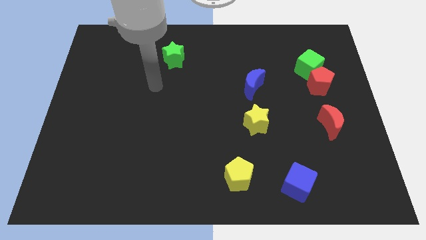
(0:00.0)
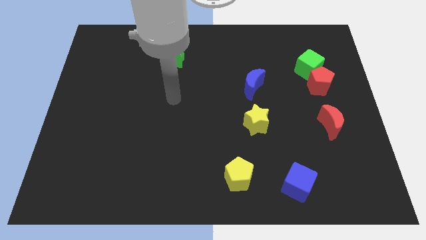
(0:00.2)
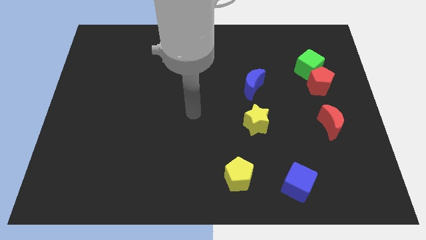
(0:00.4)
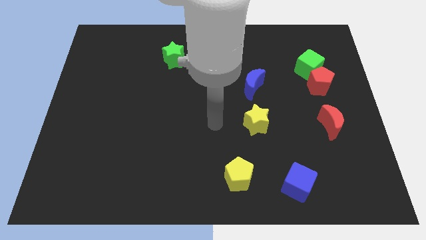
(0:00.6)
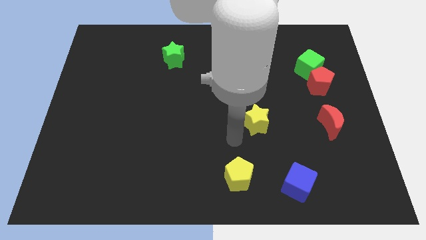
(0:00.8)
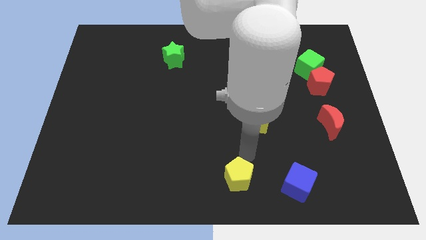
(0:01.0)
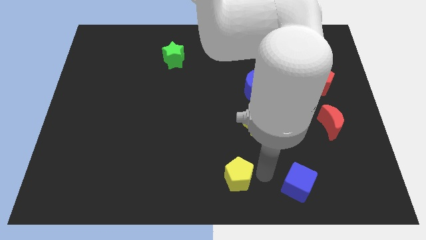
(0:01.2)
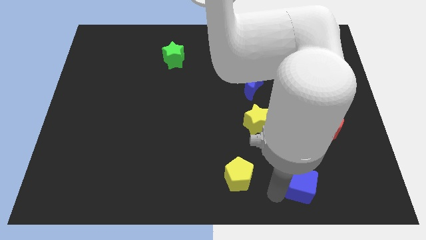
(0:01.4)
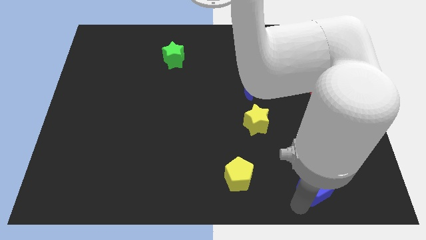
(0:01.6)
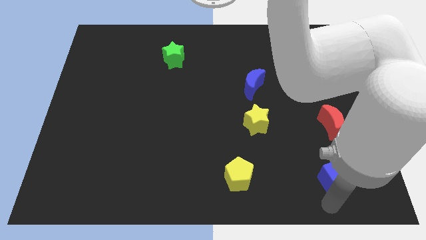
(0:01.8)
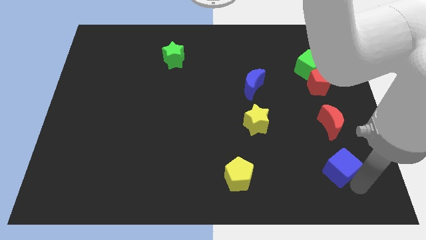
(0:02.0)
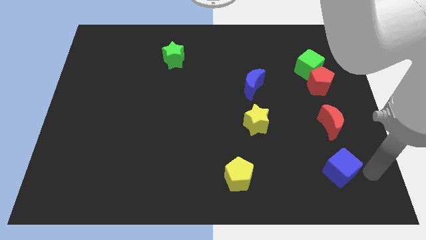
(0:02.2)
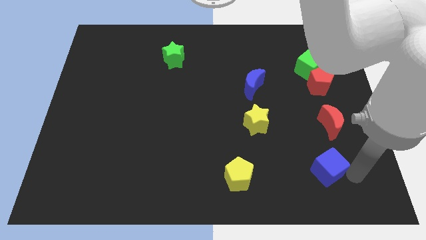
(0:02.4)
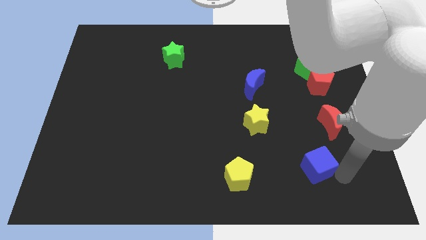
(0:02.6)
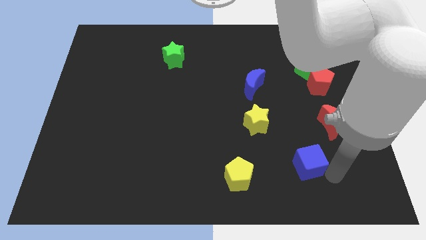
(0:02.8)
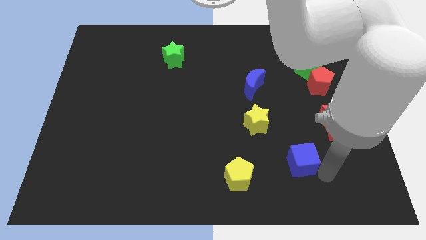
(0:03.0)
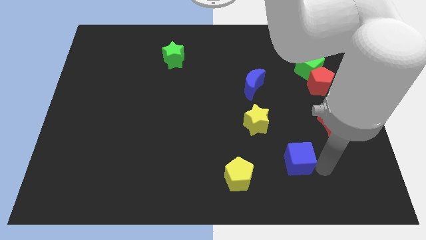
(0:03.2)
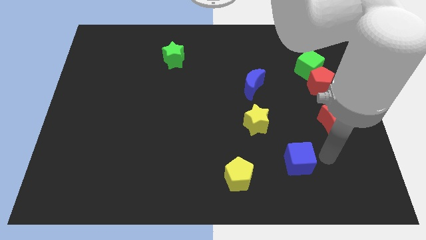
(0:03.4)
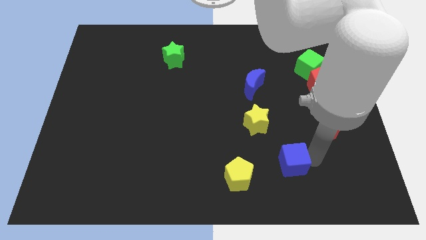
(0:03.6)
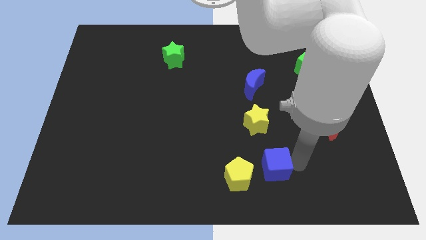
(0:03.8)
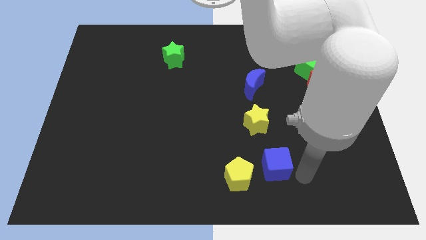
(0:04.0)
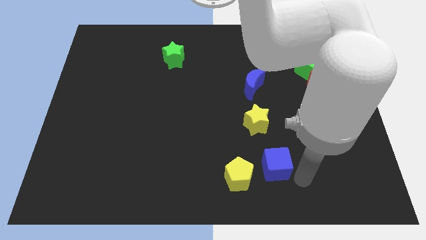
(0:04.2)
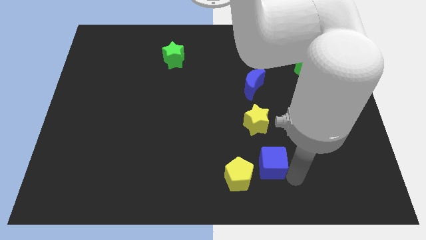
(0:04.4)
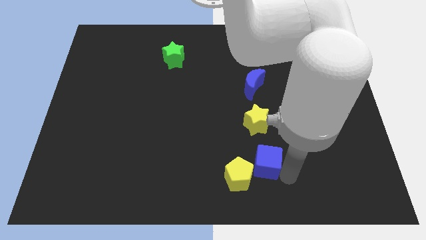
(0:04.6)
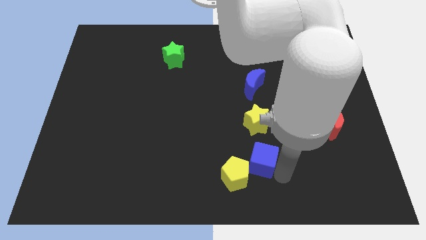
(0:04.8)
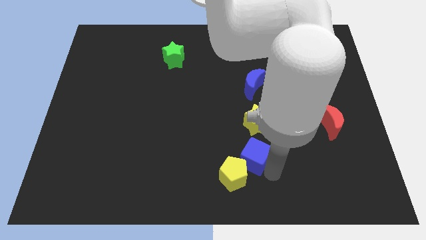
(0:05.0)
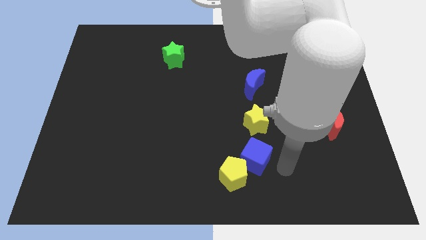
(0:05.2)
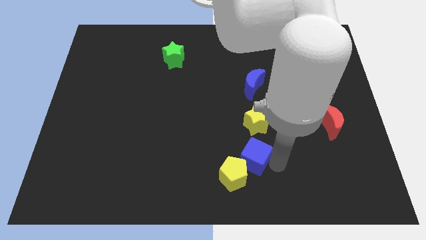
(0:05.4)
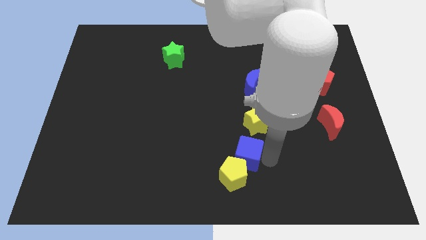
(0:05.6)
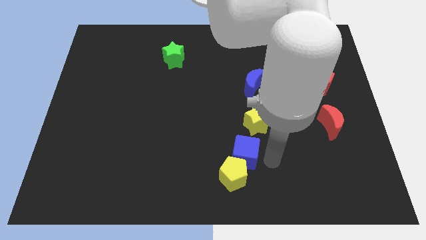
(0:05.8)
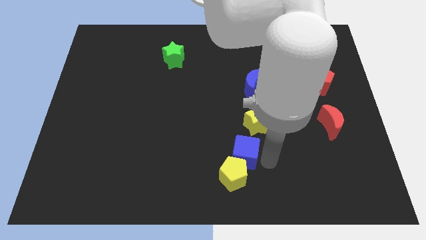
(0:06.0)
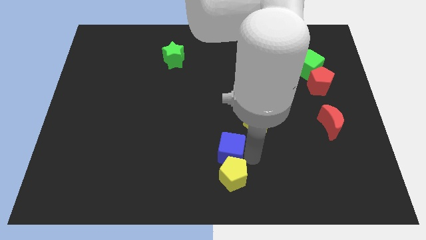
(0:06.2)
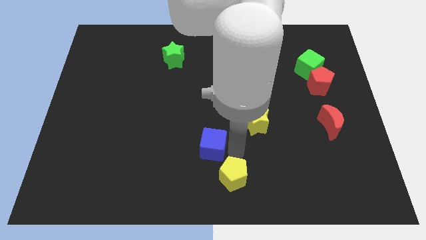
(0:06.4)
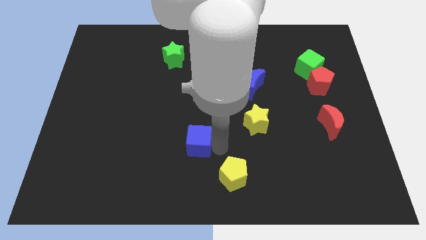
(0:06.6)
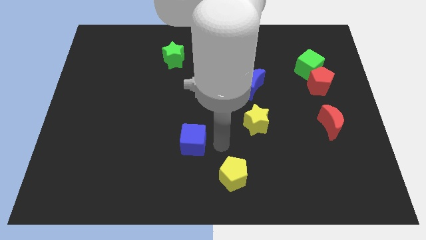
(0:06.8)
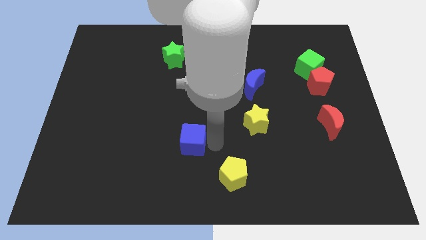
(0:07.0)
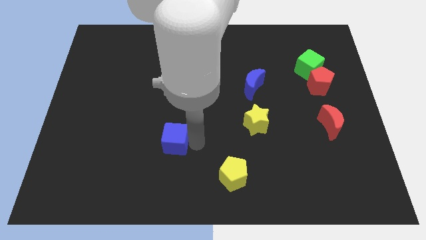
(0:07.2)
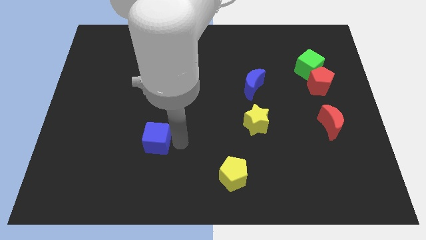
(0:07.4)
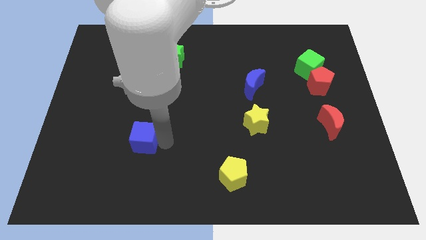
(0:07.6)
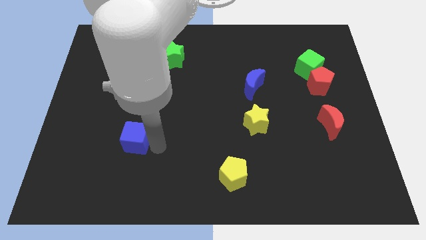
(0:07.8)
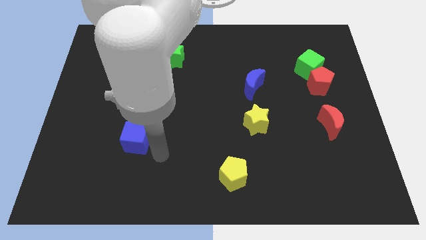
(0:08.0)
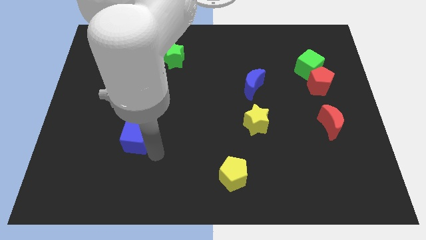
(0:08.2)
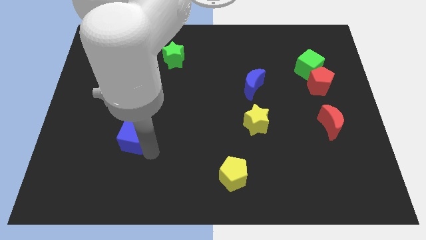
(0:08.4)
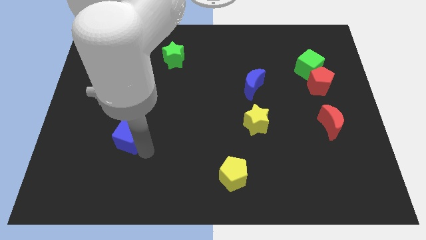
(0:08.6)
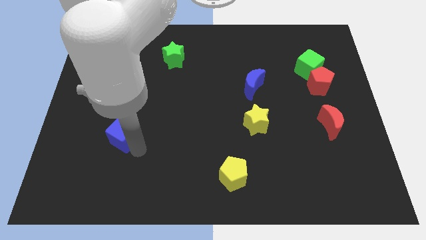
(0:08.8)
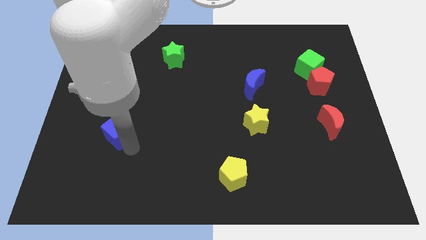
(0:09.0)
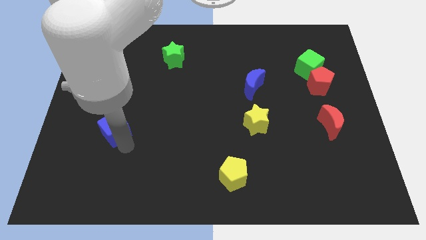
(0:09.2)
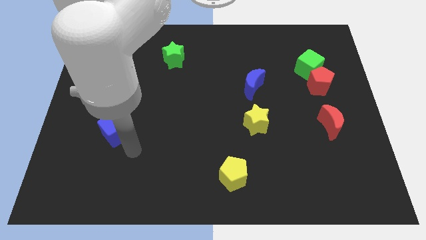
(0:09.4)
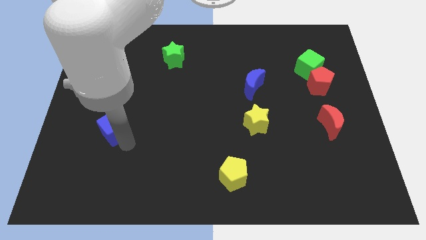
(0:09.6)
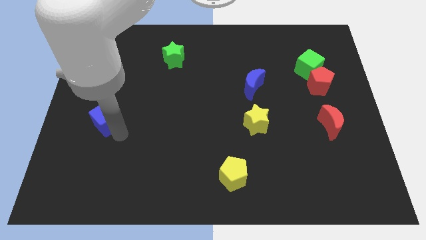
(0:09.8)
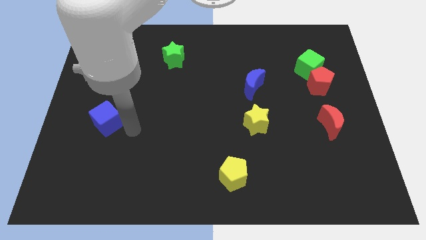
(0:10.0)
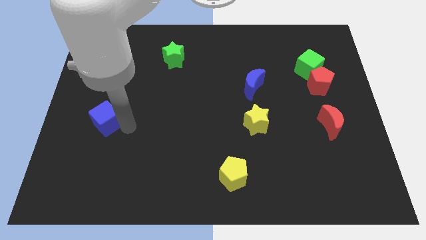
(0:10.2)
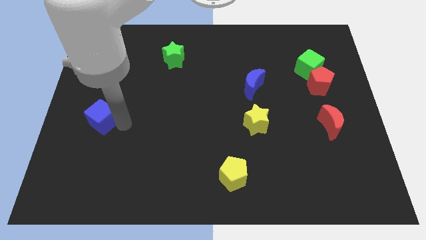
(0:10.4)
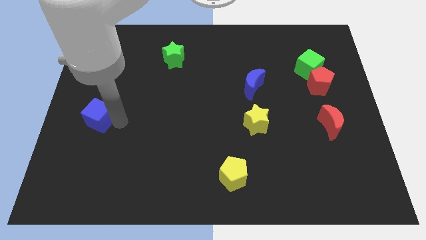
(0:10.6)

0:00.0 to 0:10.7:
put the blue cube to the left side of the board

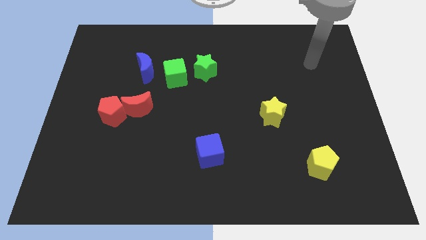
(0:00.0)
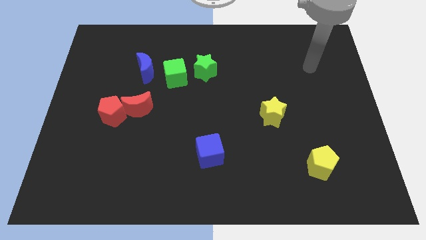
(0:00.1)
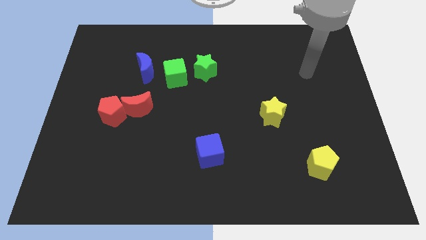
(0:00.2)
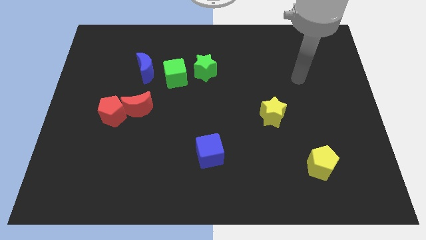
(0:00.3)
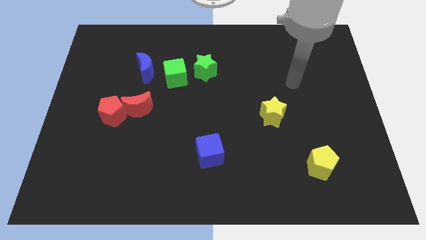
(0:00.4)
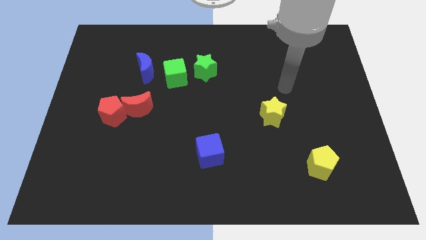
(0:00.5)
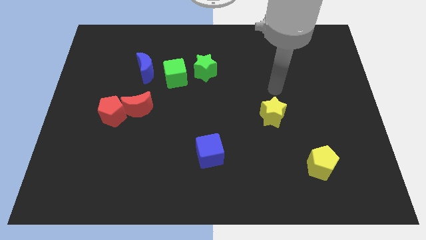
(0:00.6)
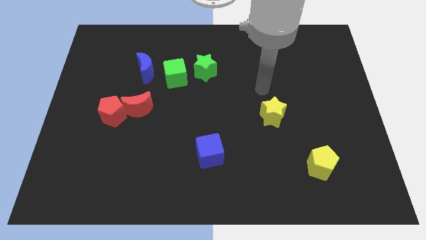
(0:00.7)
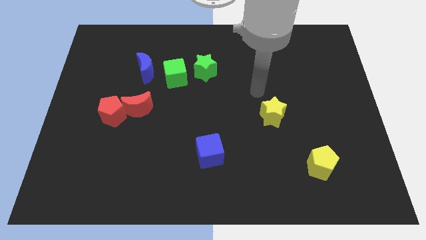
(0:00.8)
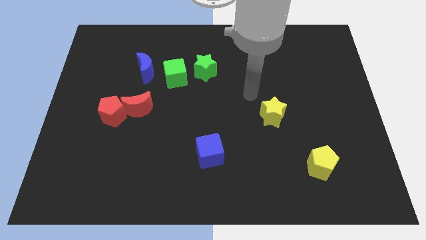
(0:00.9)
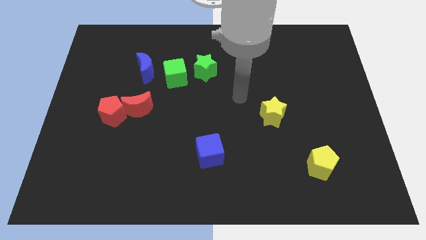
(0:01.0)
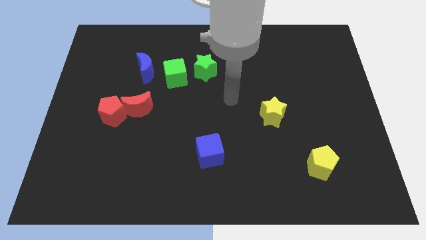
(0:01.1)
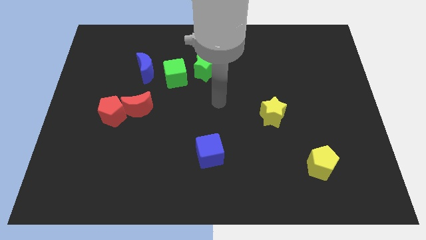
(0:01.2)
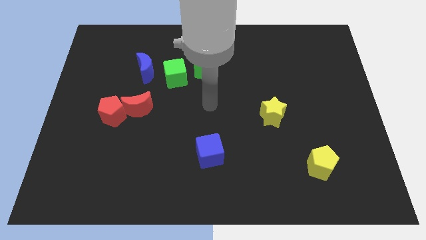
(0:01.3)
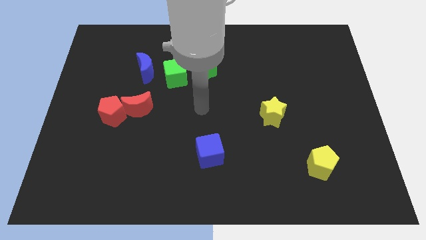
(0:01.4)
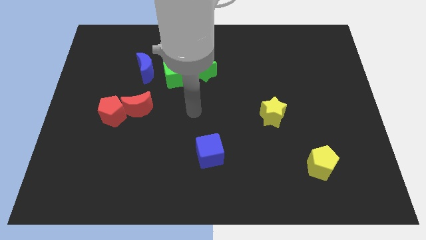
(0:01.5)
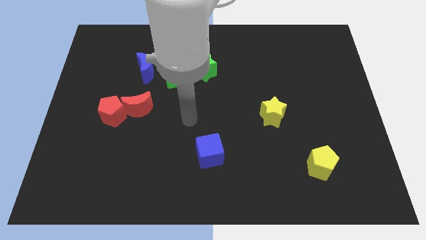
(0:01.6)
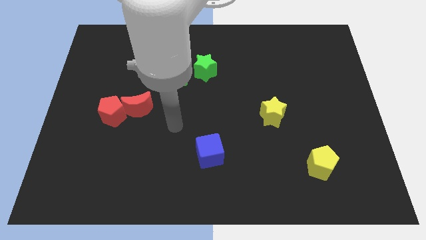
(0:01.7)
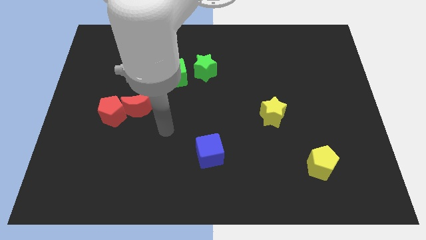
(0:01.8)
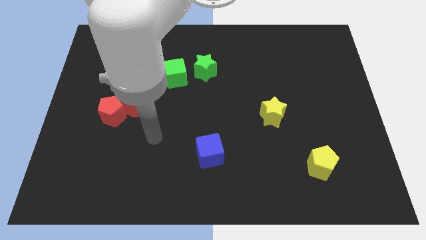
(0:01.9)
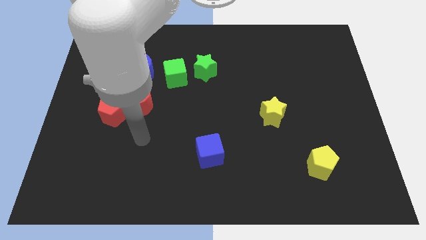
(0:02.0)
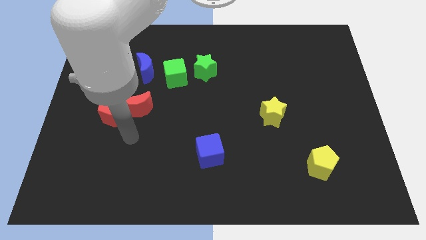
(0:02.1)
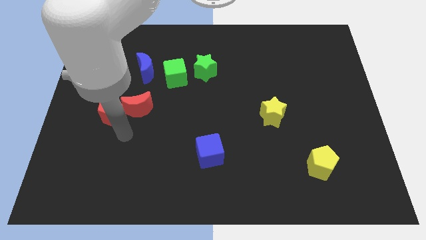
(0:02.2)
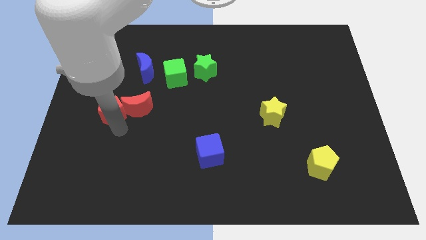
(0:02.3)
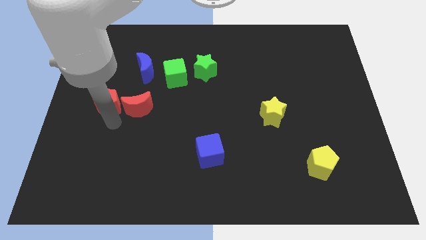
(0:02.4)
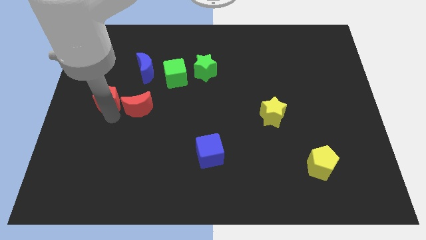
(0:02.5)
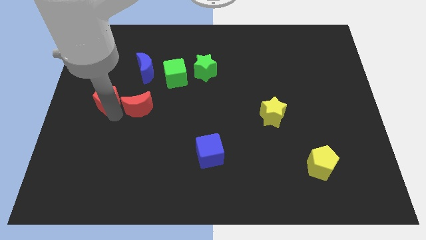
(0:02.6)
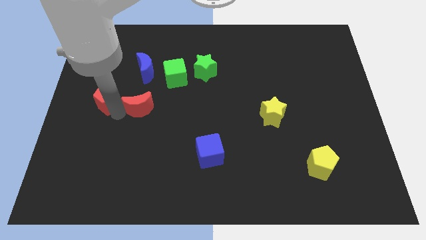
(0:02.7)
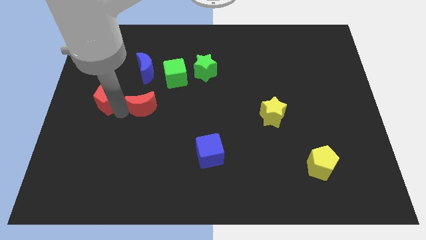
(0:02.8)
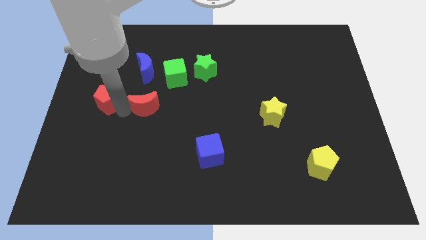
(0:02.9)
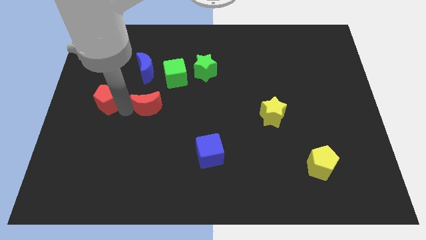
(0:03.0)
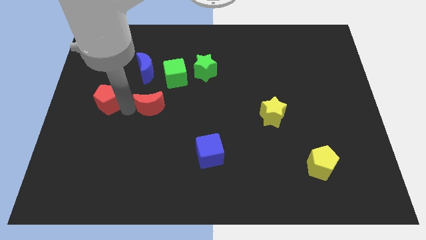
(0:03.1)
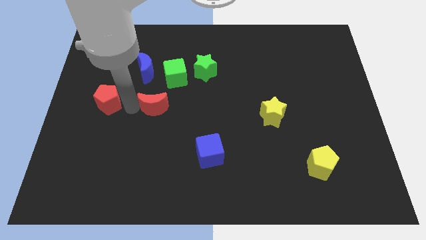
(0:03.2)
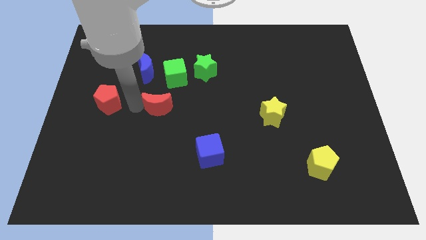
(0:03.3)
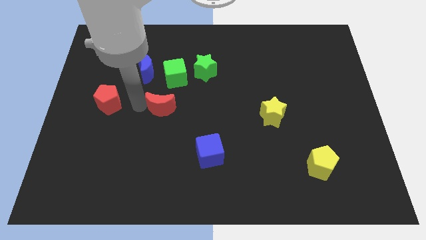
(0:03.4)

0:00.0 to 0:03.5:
slide the red moon to the center of the board
